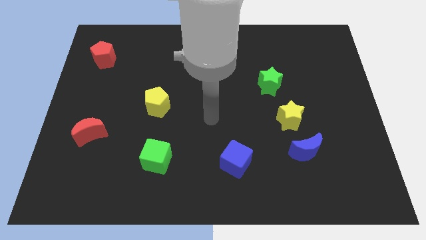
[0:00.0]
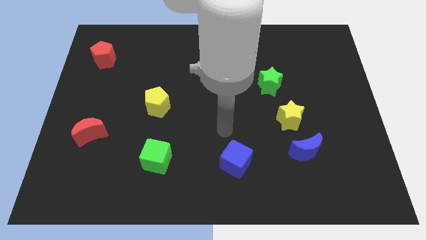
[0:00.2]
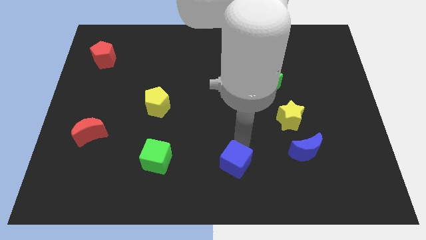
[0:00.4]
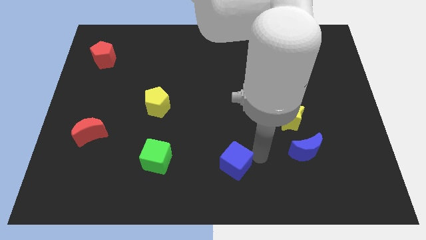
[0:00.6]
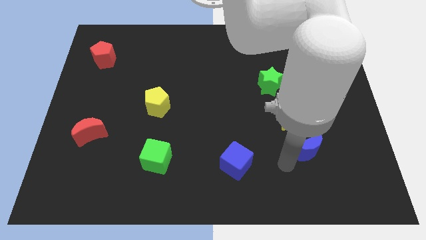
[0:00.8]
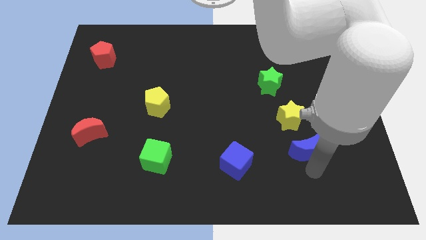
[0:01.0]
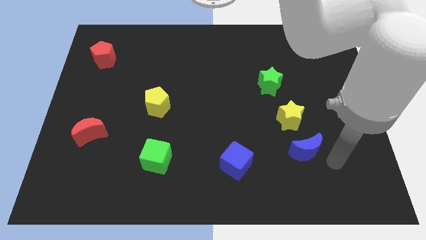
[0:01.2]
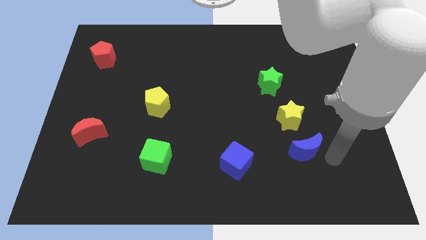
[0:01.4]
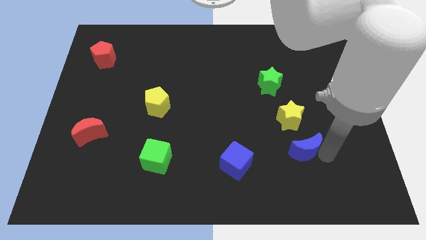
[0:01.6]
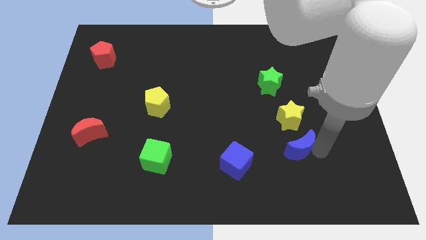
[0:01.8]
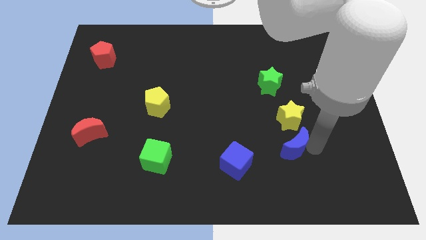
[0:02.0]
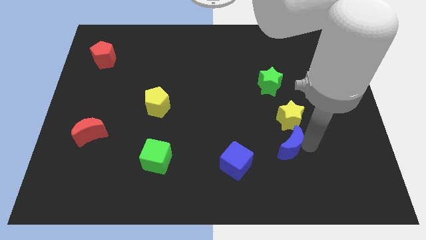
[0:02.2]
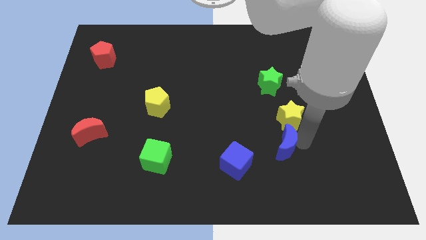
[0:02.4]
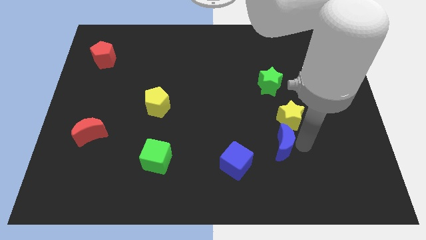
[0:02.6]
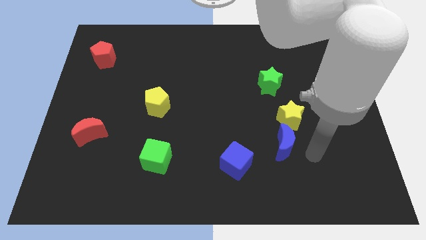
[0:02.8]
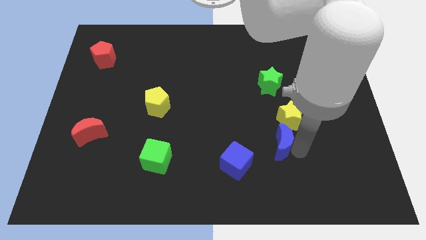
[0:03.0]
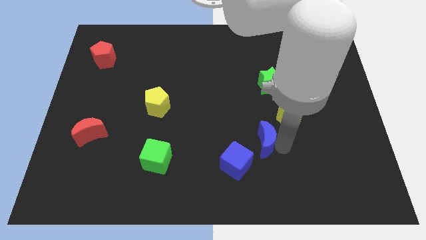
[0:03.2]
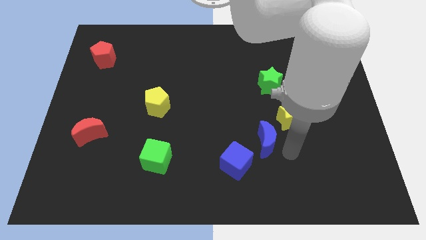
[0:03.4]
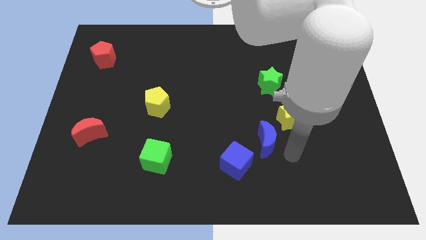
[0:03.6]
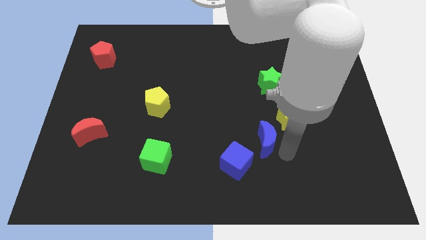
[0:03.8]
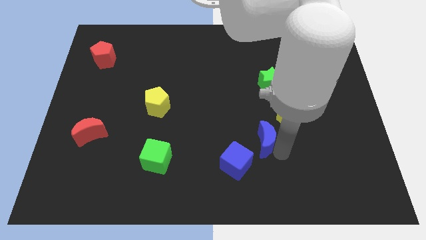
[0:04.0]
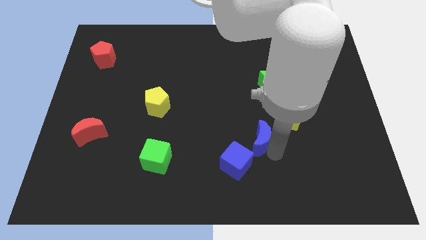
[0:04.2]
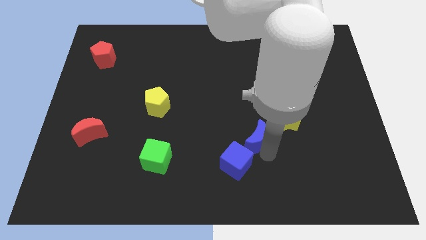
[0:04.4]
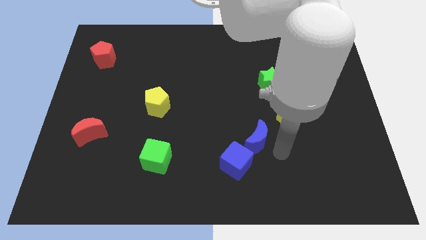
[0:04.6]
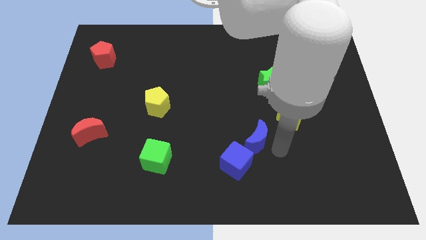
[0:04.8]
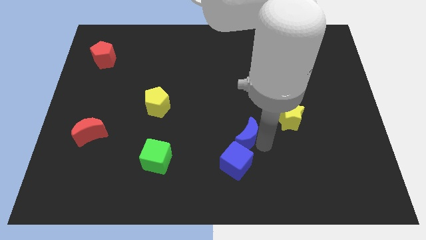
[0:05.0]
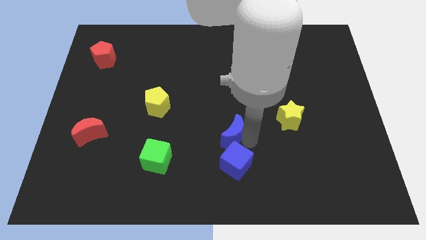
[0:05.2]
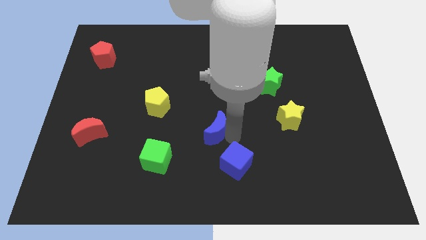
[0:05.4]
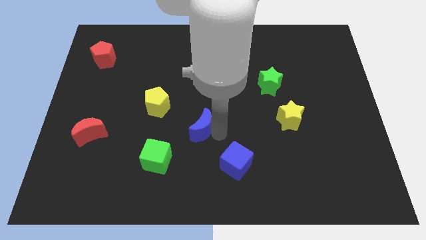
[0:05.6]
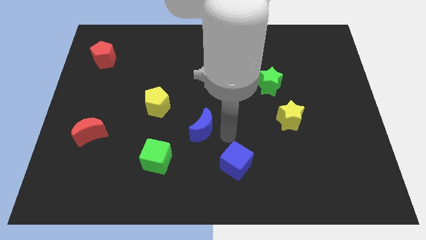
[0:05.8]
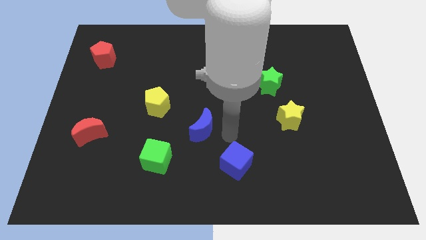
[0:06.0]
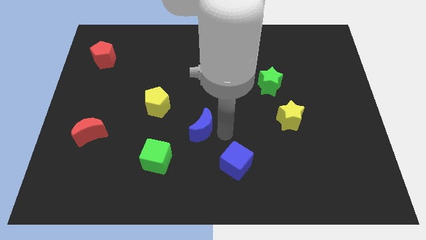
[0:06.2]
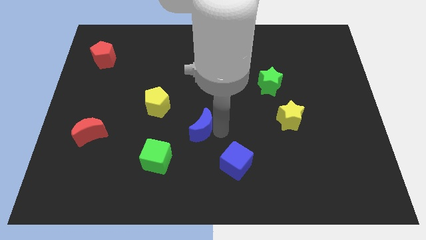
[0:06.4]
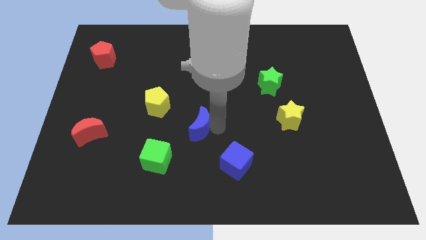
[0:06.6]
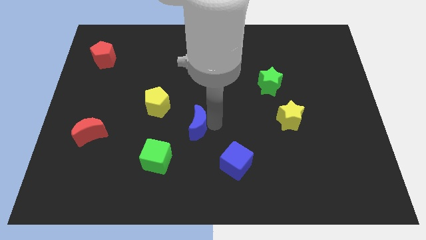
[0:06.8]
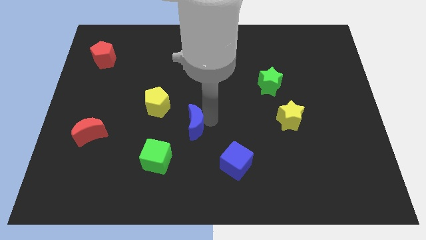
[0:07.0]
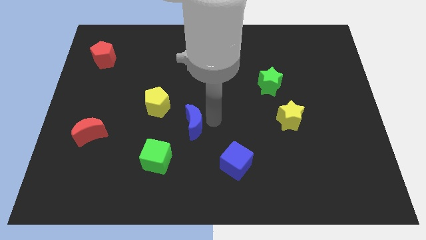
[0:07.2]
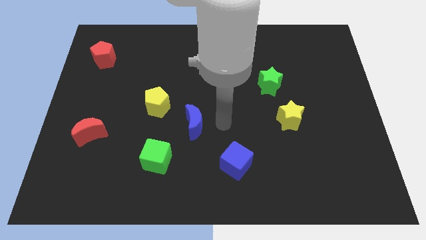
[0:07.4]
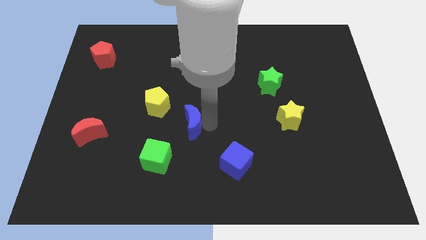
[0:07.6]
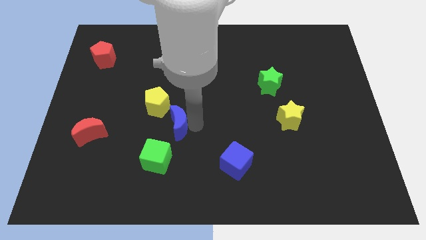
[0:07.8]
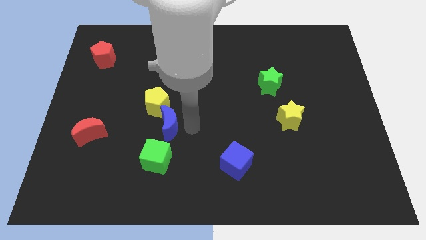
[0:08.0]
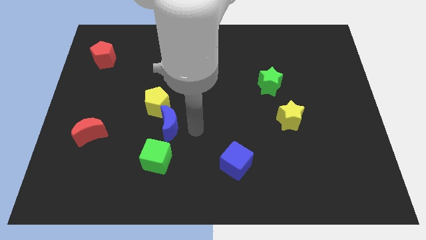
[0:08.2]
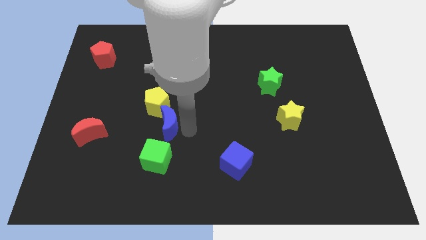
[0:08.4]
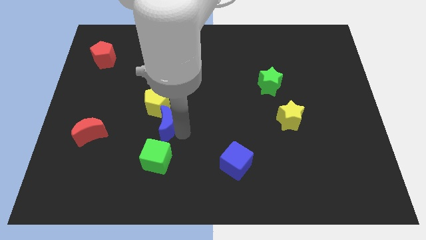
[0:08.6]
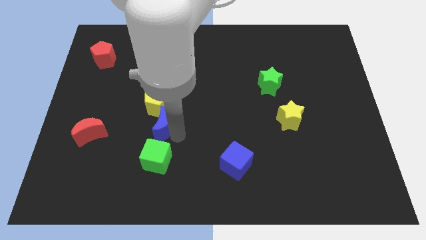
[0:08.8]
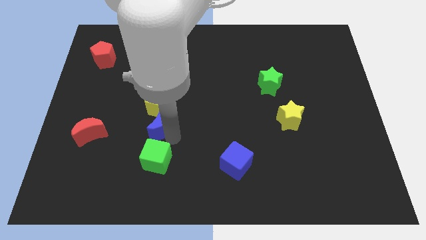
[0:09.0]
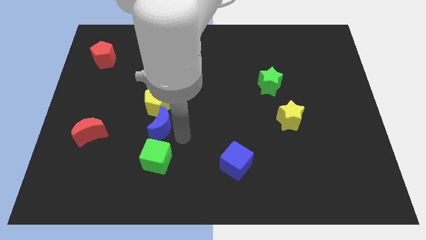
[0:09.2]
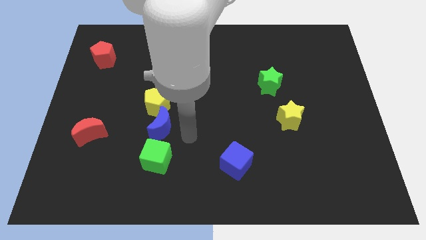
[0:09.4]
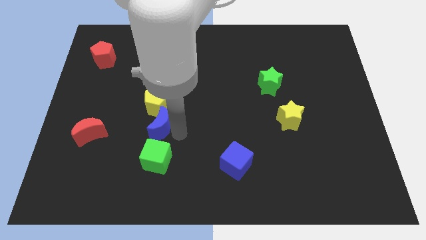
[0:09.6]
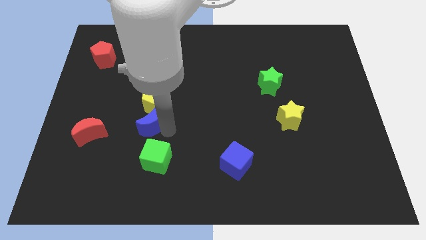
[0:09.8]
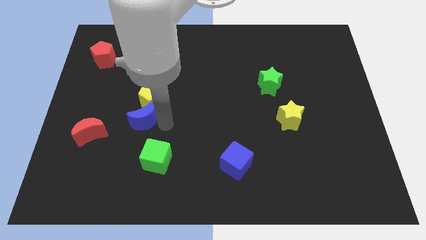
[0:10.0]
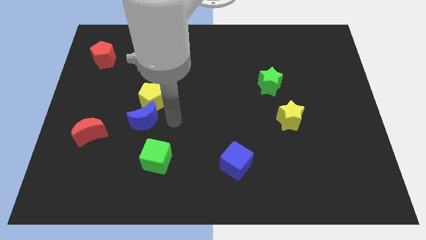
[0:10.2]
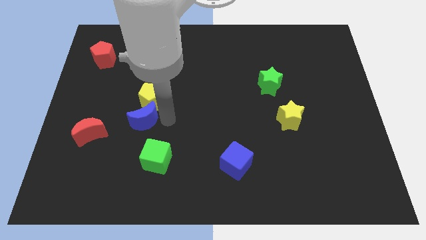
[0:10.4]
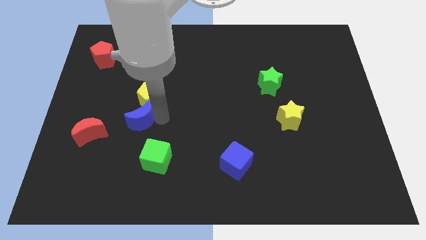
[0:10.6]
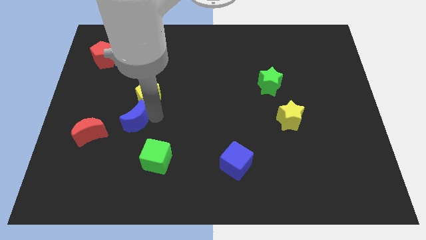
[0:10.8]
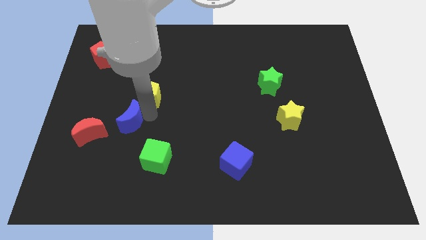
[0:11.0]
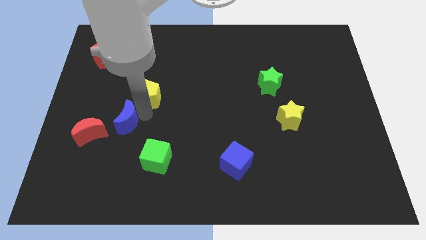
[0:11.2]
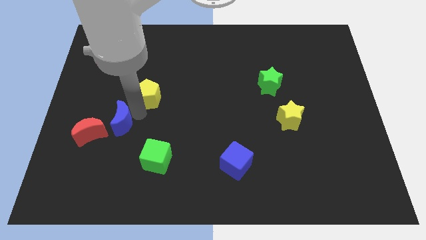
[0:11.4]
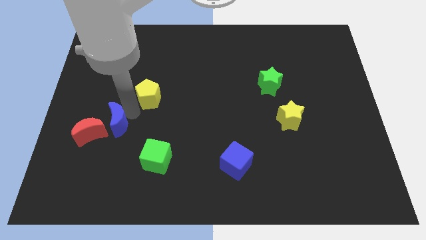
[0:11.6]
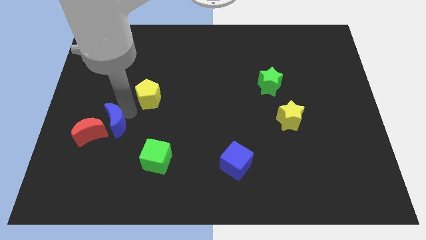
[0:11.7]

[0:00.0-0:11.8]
put the blue moon close to the red moon

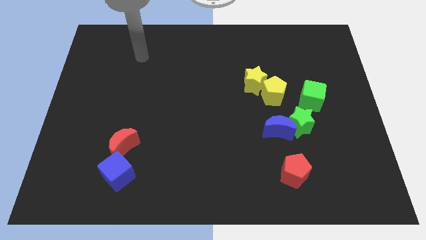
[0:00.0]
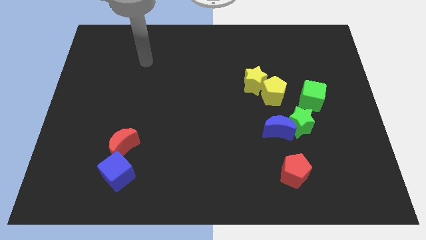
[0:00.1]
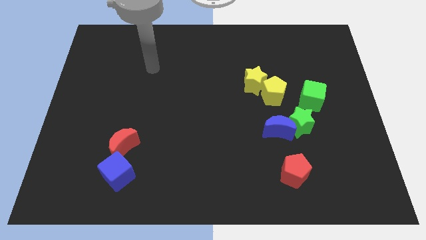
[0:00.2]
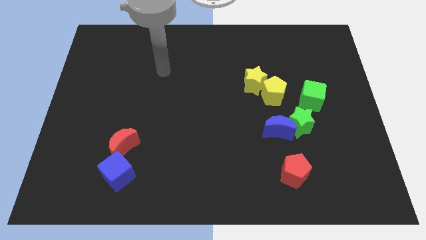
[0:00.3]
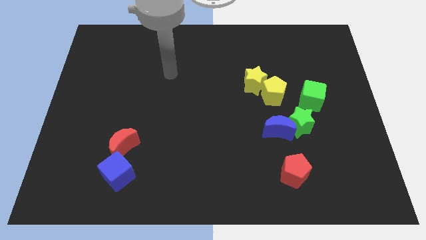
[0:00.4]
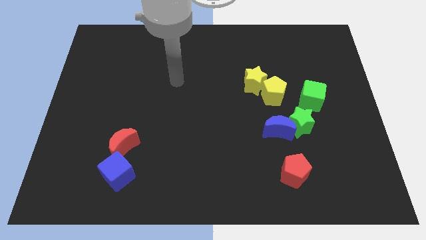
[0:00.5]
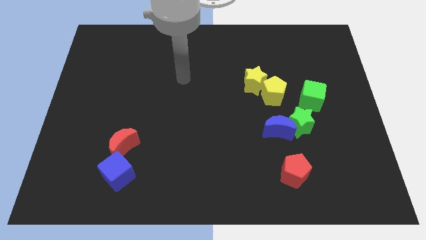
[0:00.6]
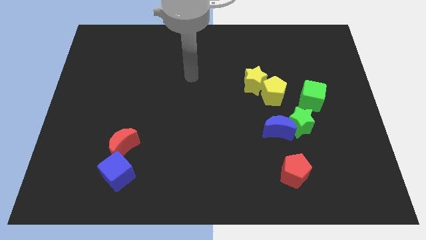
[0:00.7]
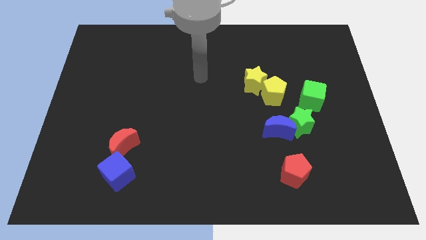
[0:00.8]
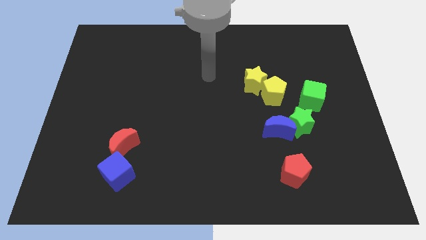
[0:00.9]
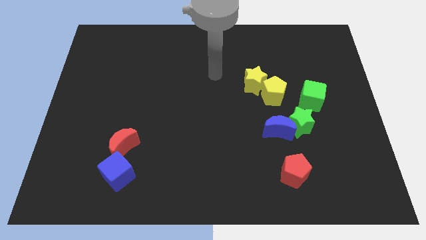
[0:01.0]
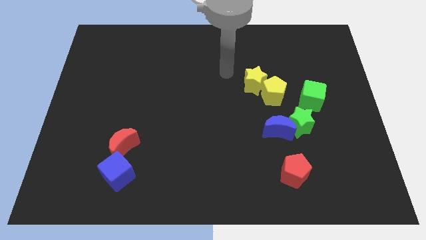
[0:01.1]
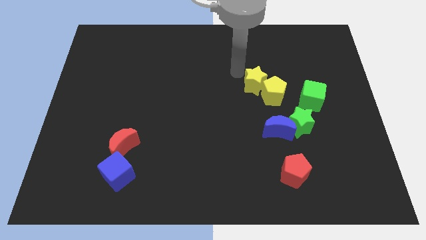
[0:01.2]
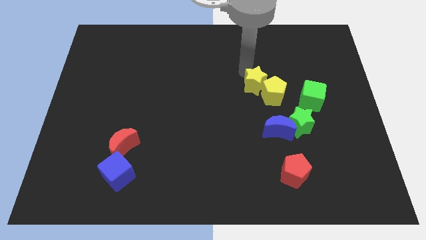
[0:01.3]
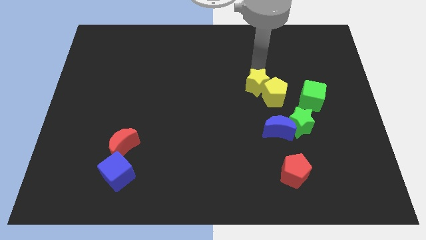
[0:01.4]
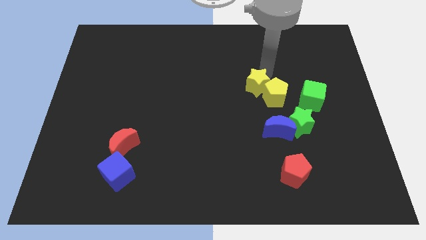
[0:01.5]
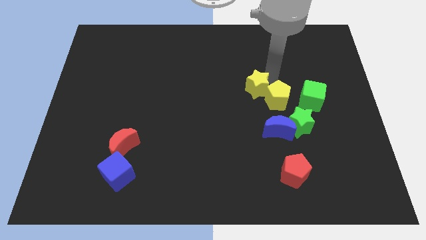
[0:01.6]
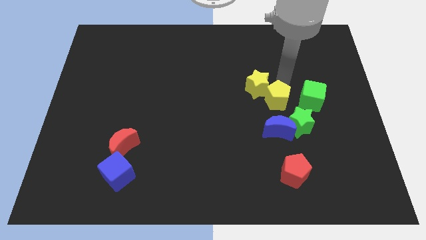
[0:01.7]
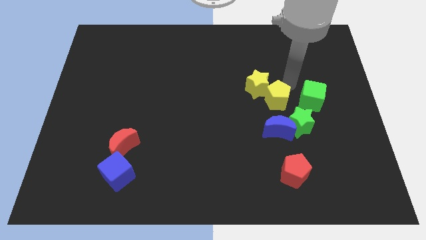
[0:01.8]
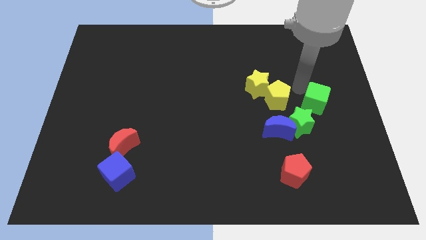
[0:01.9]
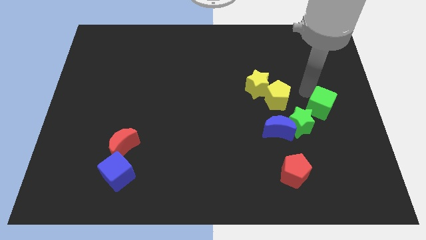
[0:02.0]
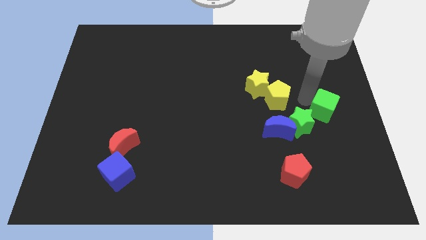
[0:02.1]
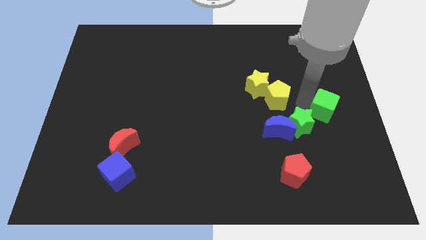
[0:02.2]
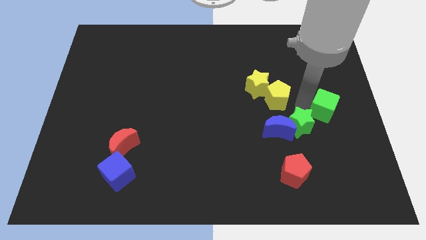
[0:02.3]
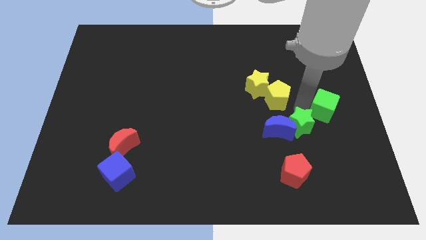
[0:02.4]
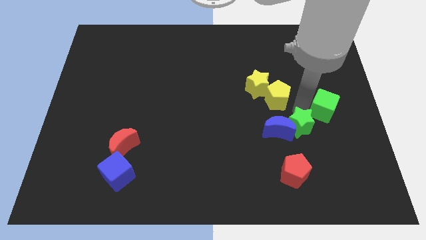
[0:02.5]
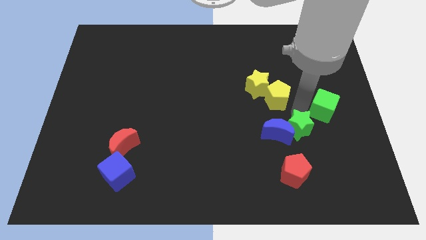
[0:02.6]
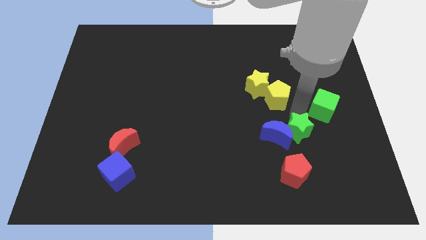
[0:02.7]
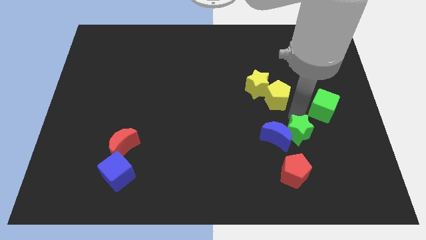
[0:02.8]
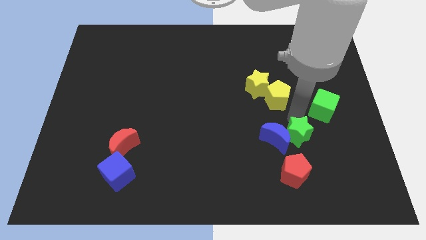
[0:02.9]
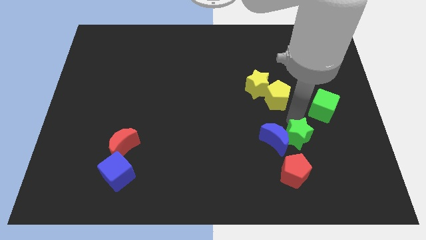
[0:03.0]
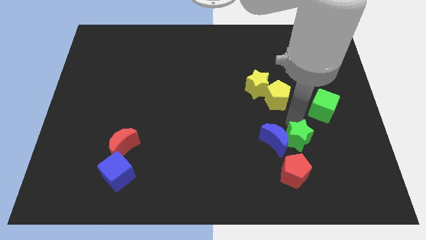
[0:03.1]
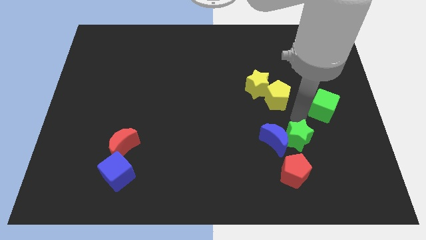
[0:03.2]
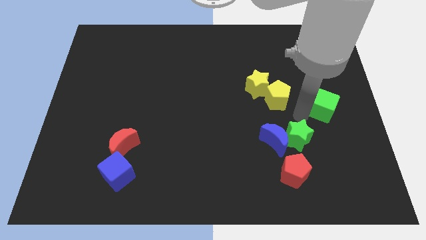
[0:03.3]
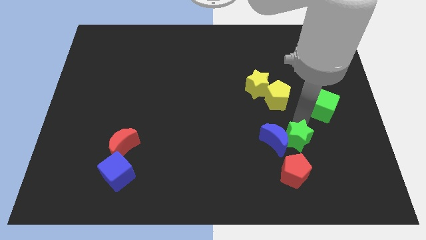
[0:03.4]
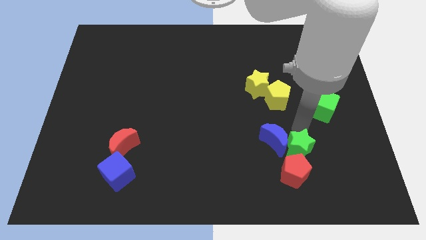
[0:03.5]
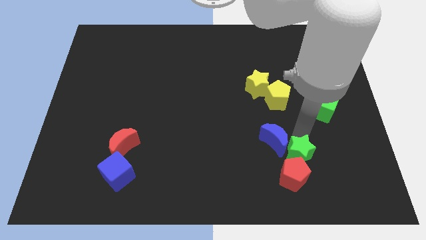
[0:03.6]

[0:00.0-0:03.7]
push the green star next to the red pentagon
